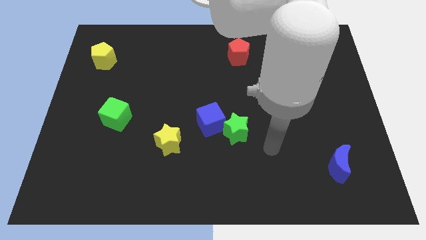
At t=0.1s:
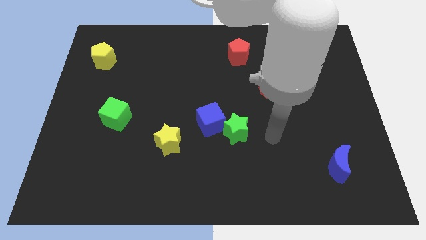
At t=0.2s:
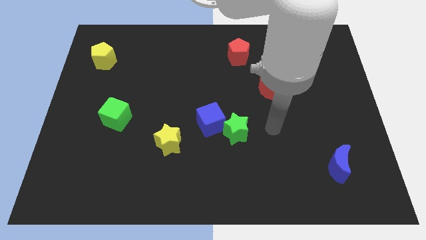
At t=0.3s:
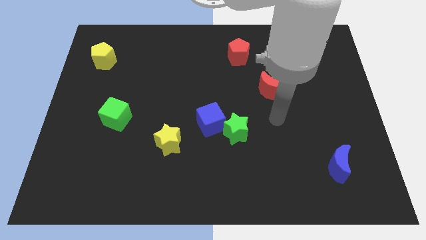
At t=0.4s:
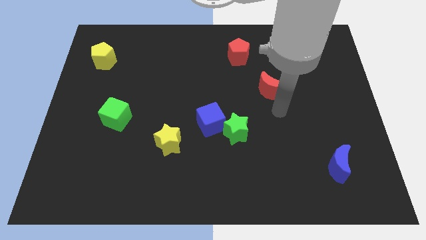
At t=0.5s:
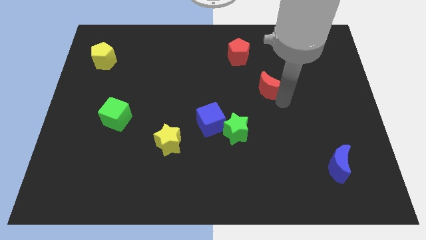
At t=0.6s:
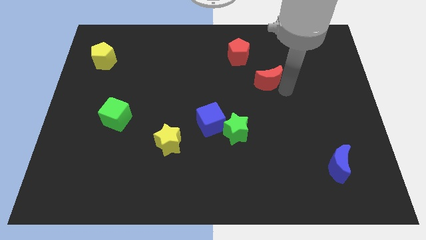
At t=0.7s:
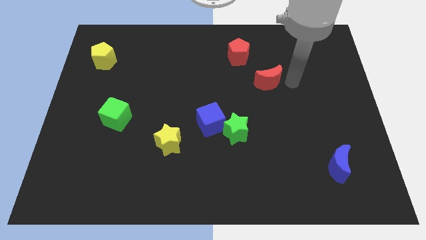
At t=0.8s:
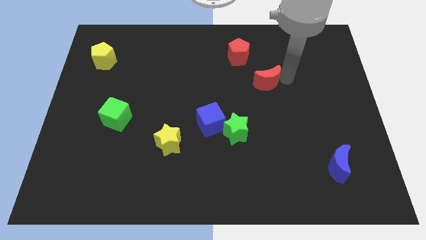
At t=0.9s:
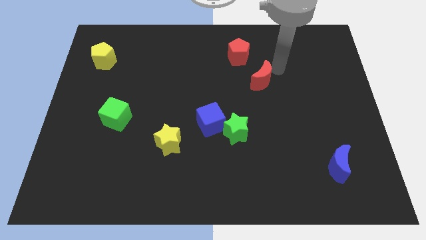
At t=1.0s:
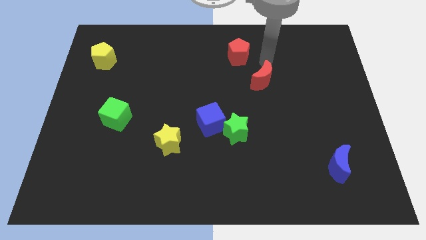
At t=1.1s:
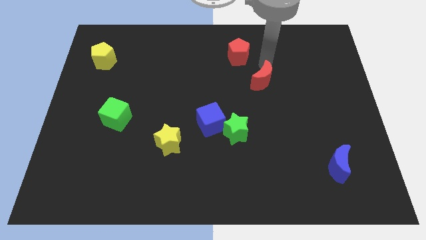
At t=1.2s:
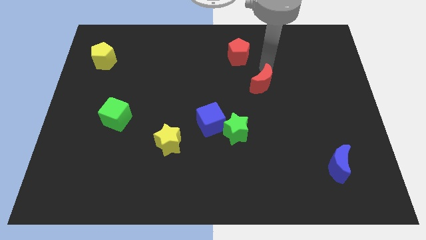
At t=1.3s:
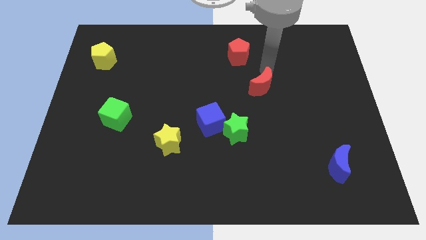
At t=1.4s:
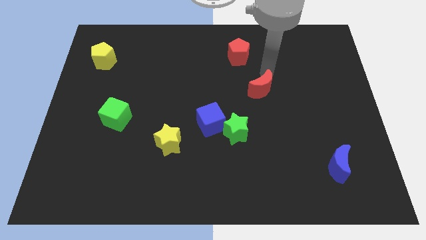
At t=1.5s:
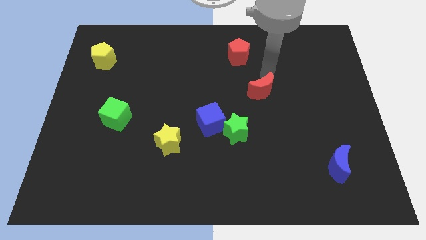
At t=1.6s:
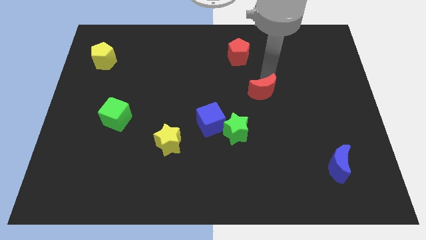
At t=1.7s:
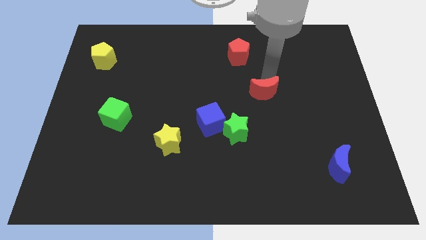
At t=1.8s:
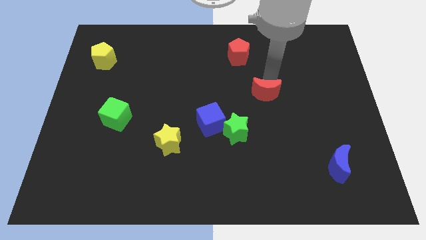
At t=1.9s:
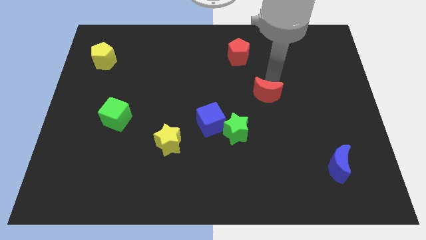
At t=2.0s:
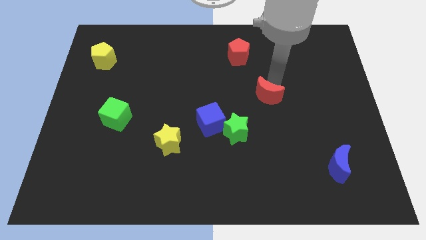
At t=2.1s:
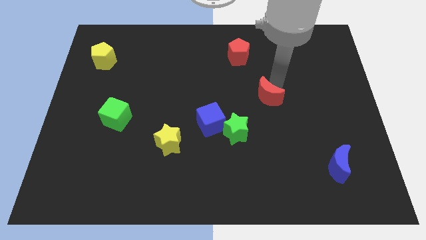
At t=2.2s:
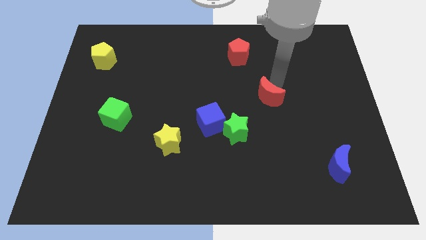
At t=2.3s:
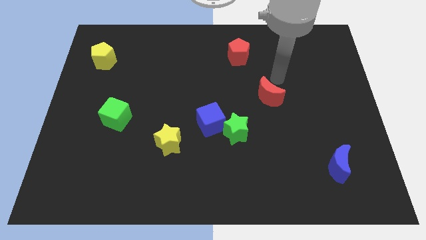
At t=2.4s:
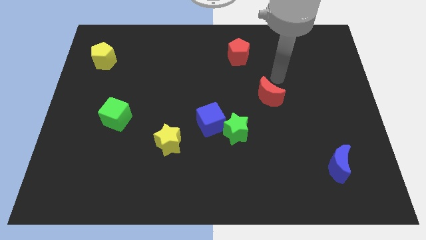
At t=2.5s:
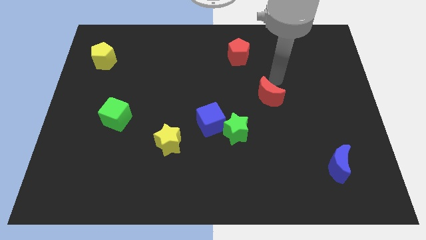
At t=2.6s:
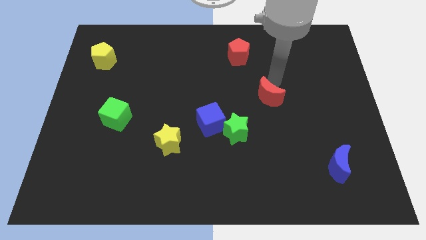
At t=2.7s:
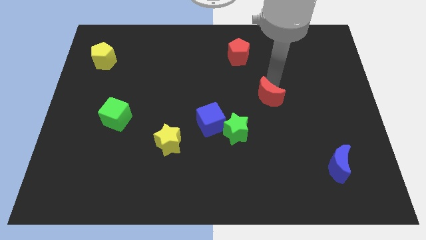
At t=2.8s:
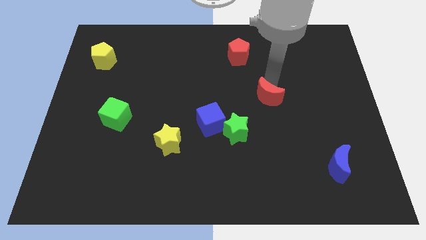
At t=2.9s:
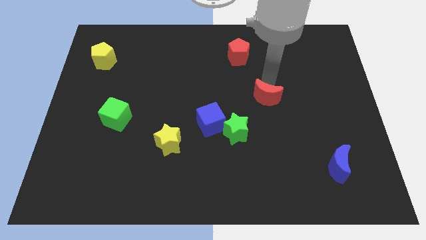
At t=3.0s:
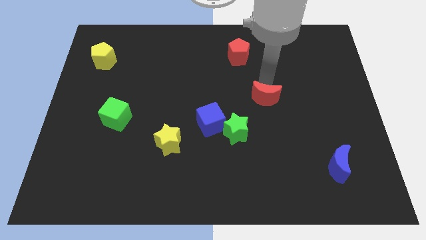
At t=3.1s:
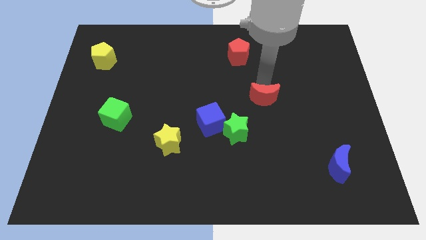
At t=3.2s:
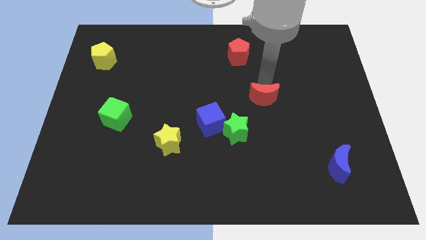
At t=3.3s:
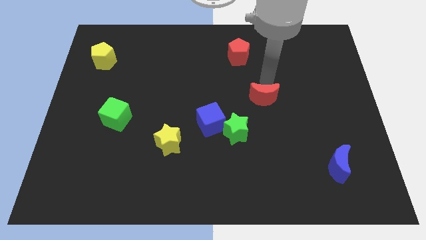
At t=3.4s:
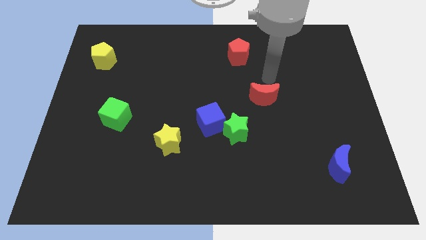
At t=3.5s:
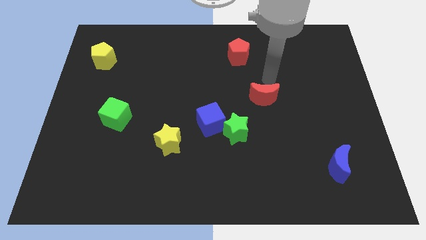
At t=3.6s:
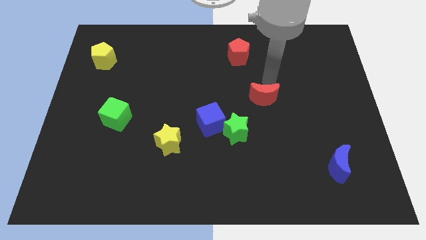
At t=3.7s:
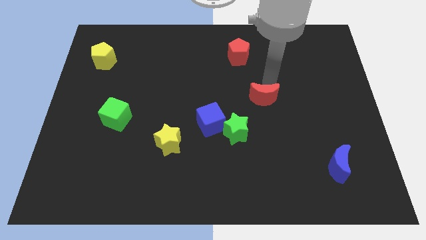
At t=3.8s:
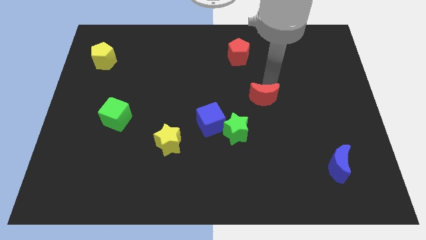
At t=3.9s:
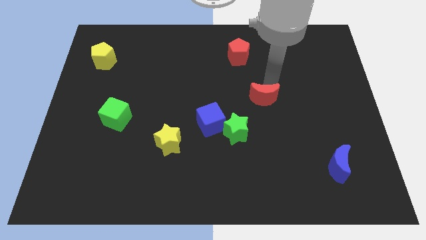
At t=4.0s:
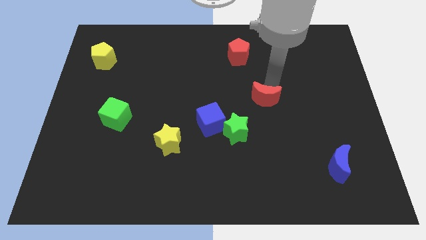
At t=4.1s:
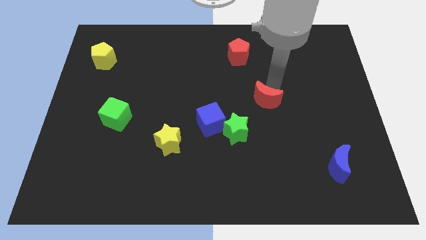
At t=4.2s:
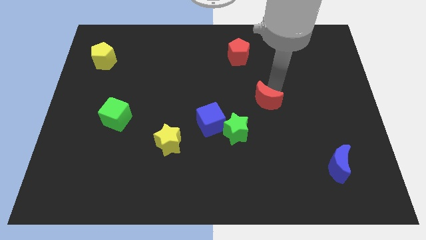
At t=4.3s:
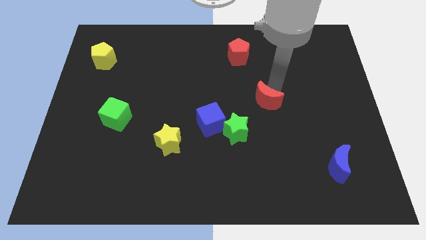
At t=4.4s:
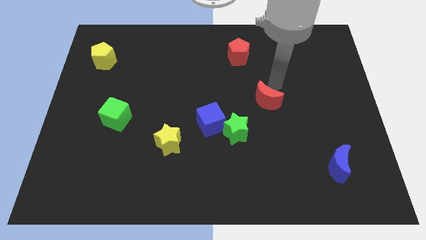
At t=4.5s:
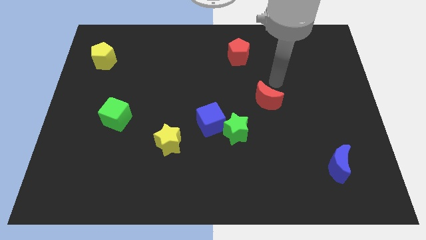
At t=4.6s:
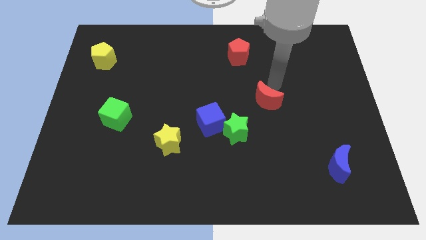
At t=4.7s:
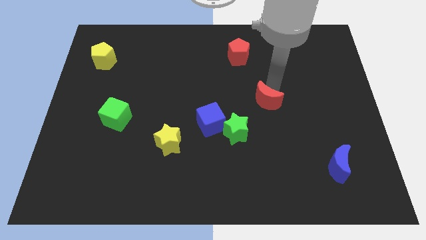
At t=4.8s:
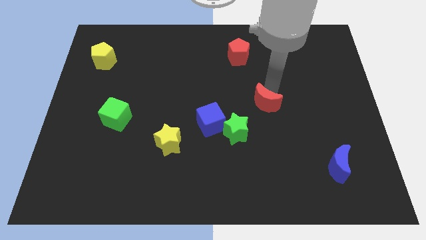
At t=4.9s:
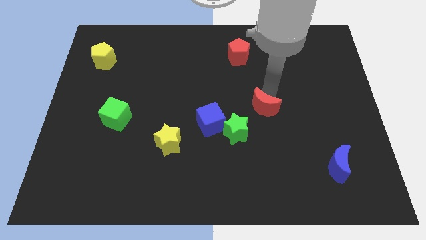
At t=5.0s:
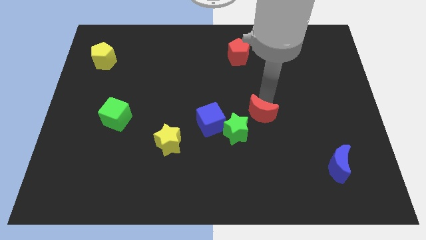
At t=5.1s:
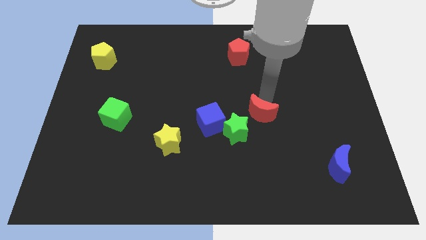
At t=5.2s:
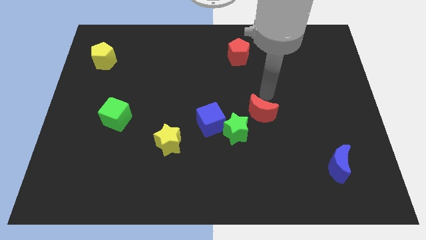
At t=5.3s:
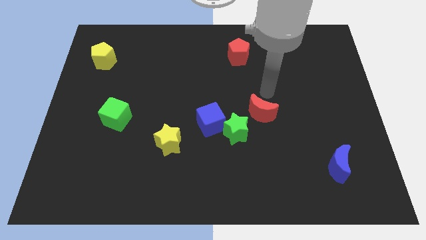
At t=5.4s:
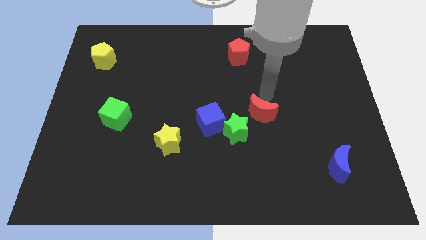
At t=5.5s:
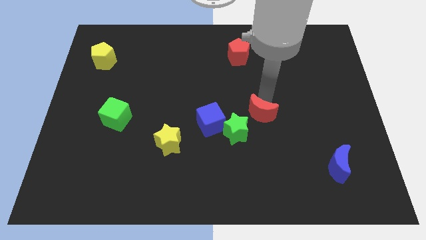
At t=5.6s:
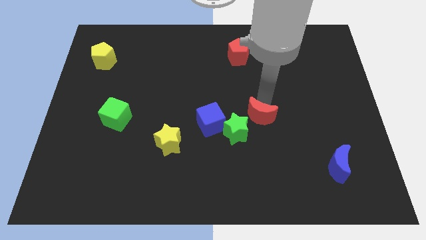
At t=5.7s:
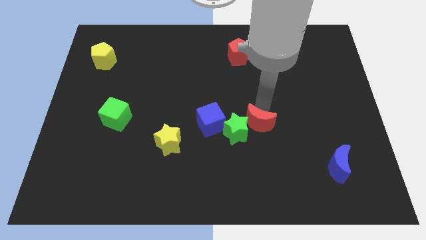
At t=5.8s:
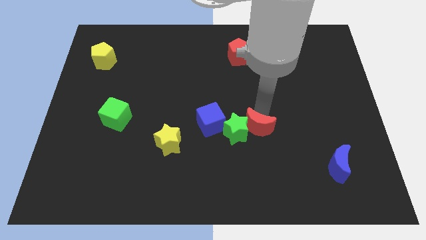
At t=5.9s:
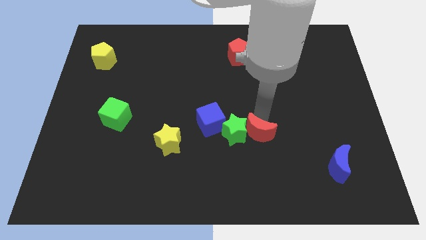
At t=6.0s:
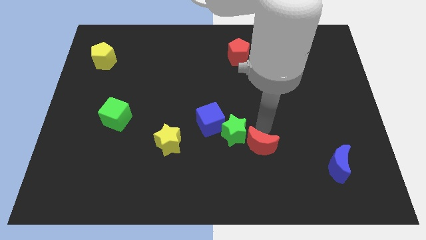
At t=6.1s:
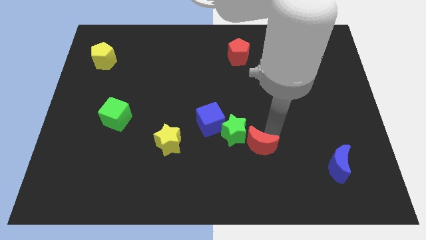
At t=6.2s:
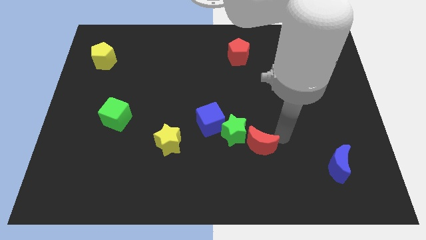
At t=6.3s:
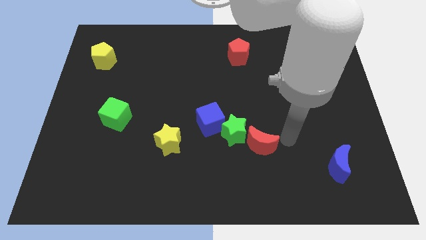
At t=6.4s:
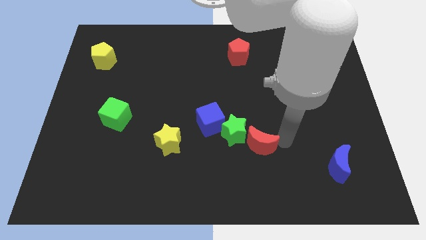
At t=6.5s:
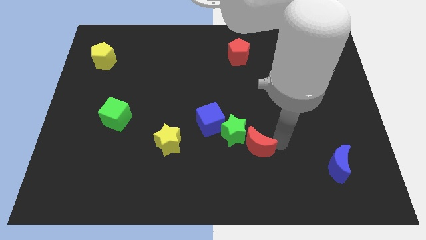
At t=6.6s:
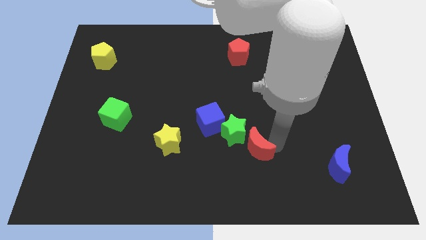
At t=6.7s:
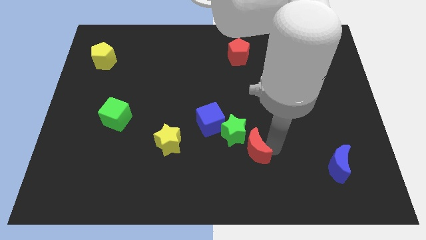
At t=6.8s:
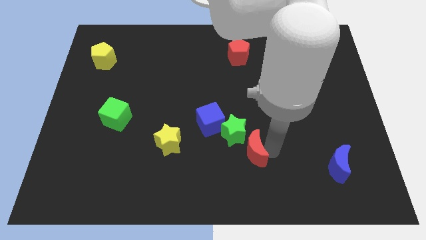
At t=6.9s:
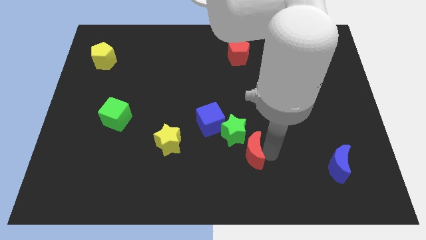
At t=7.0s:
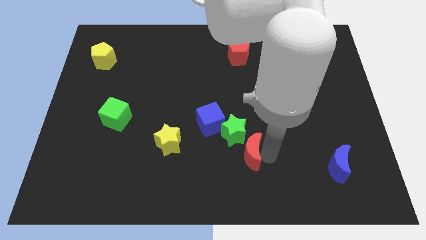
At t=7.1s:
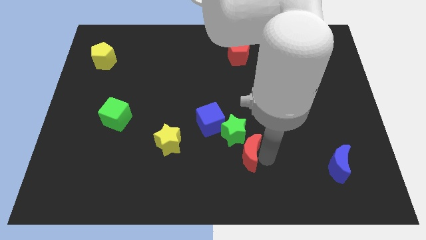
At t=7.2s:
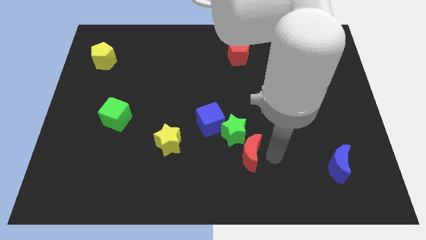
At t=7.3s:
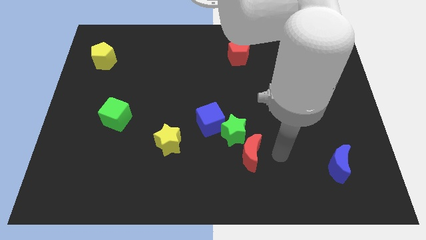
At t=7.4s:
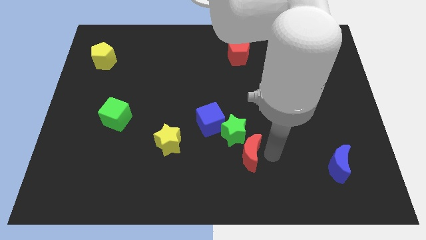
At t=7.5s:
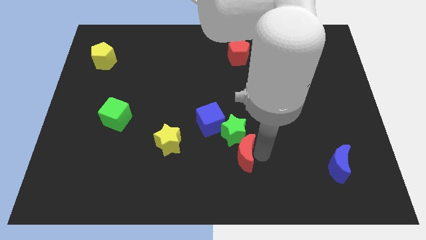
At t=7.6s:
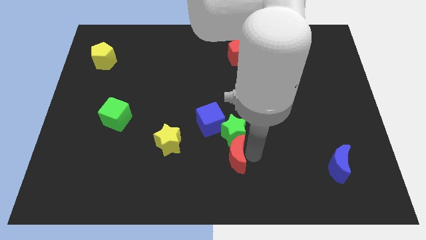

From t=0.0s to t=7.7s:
put the red moon to the bottom left of the green star
